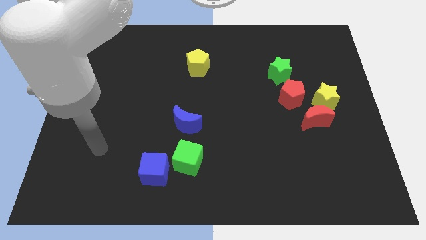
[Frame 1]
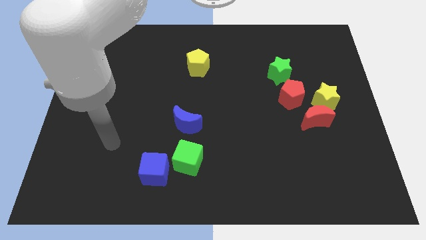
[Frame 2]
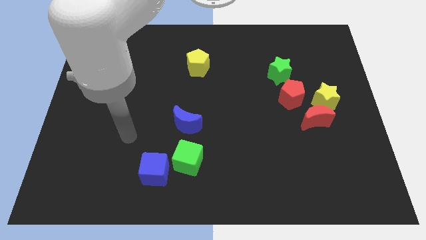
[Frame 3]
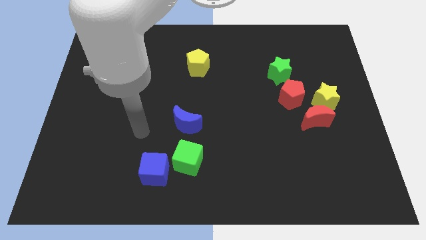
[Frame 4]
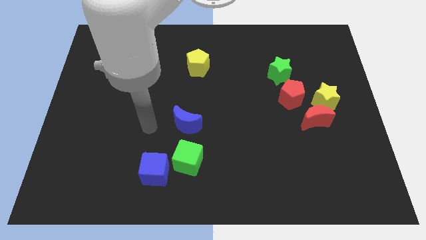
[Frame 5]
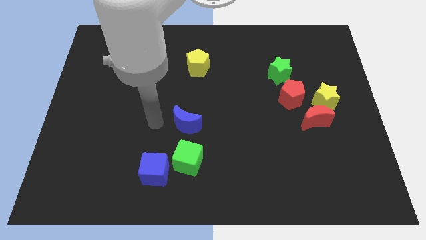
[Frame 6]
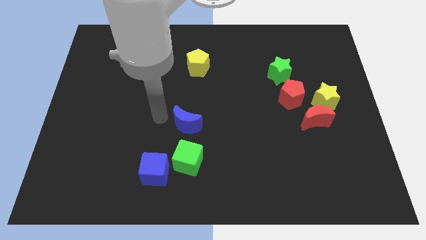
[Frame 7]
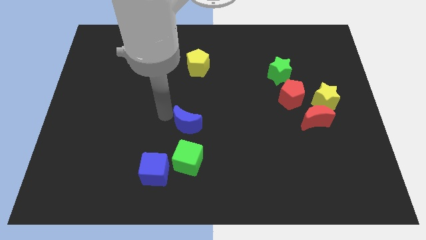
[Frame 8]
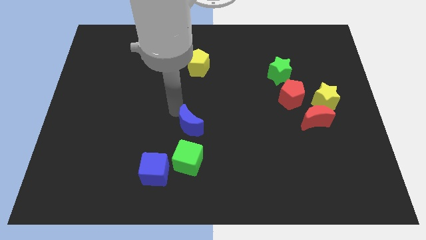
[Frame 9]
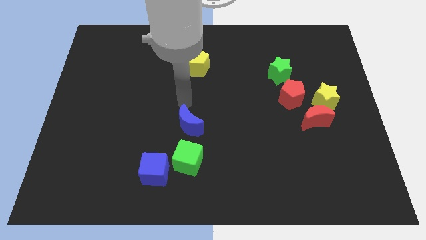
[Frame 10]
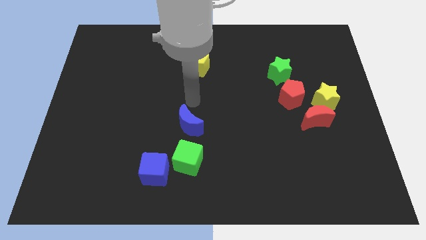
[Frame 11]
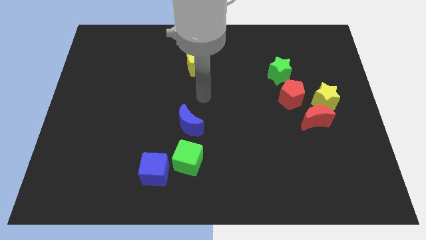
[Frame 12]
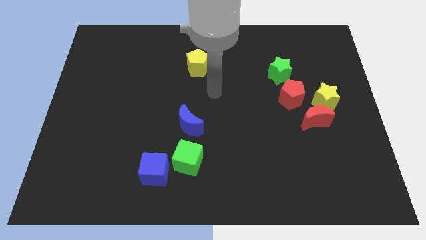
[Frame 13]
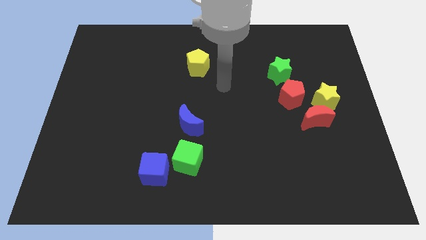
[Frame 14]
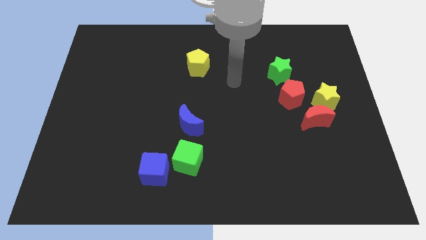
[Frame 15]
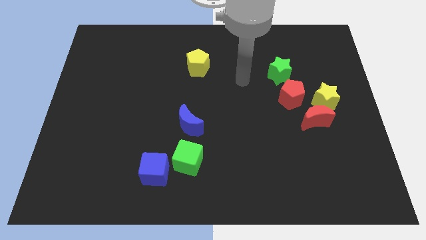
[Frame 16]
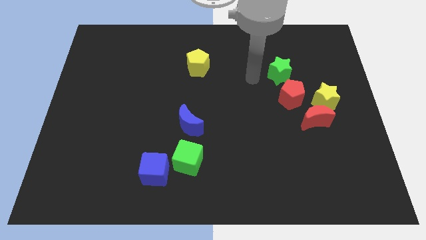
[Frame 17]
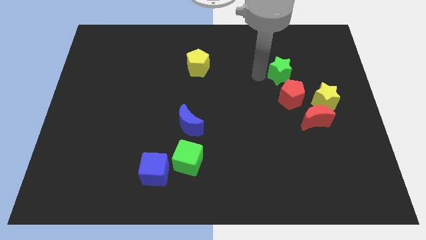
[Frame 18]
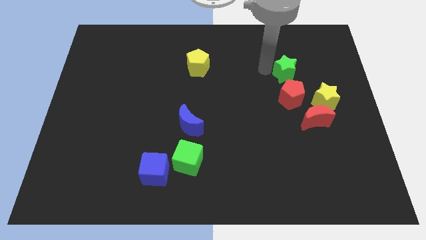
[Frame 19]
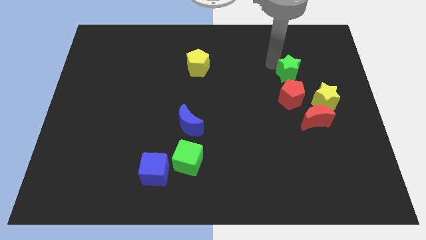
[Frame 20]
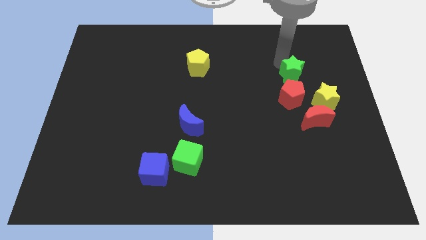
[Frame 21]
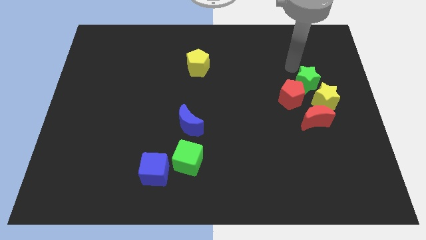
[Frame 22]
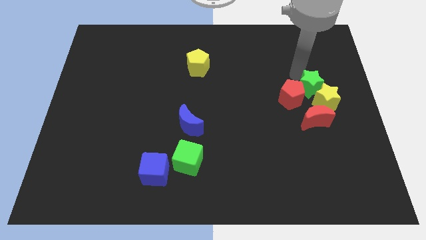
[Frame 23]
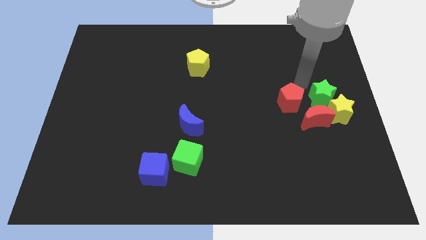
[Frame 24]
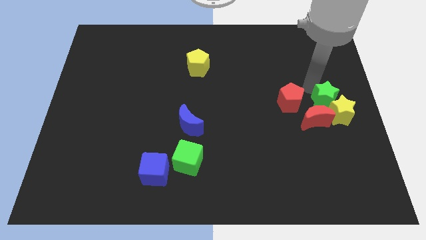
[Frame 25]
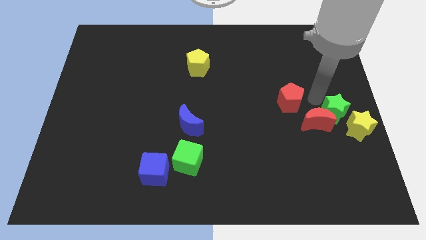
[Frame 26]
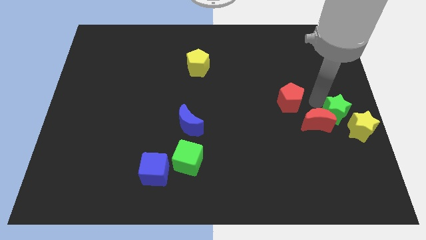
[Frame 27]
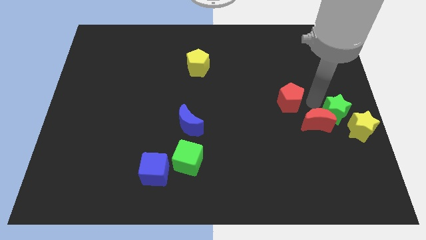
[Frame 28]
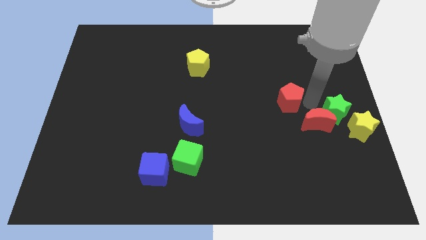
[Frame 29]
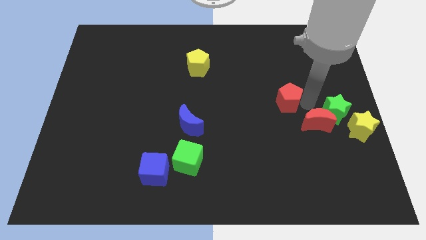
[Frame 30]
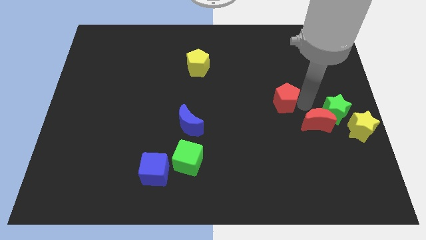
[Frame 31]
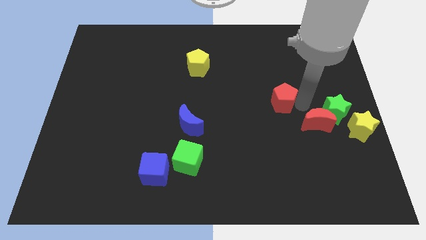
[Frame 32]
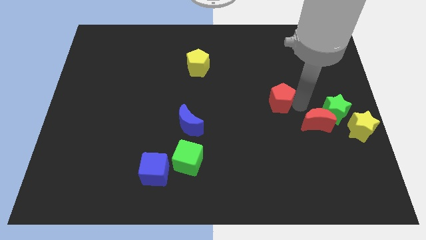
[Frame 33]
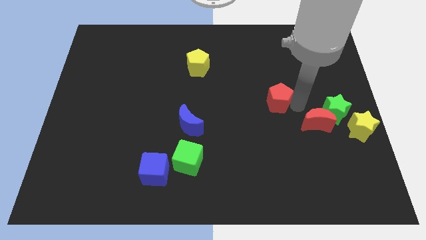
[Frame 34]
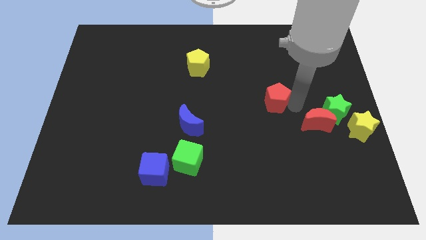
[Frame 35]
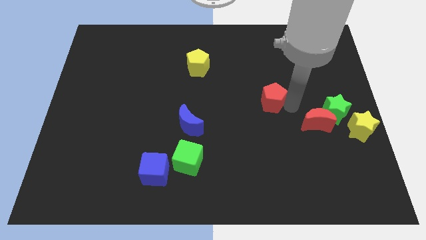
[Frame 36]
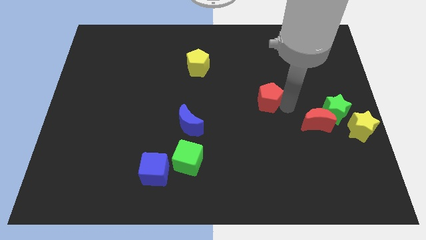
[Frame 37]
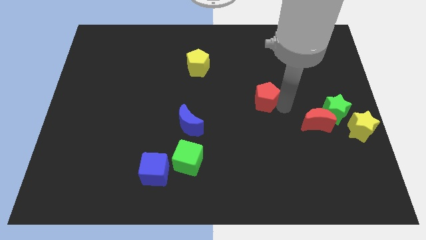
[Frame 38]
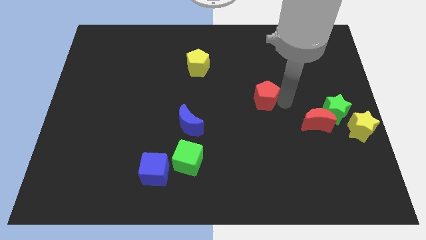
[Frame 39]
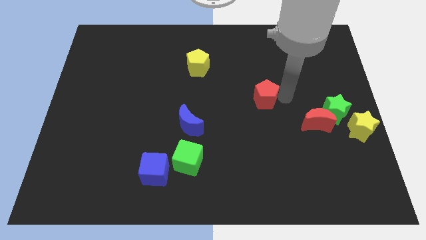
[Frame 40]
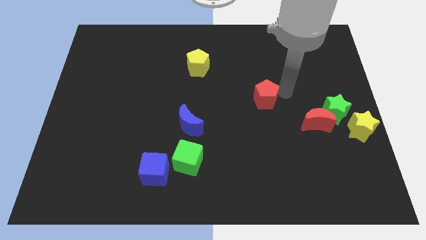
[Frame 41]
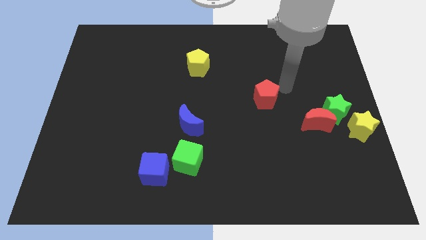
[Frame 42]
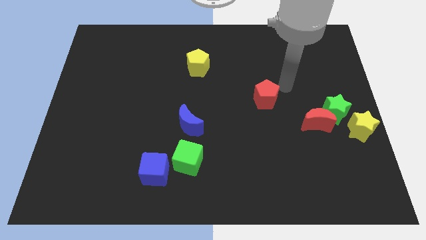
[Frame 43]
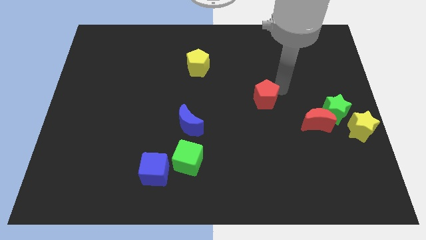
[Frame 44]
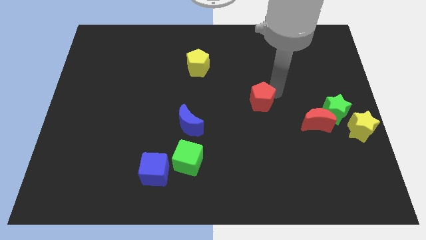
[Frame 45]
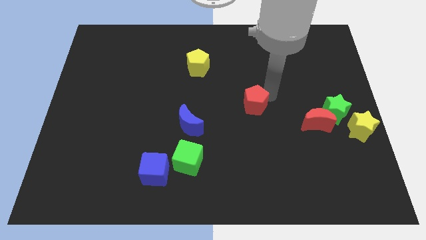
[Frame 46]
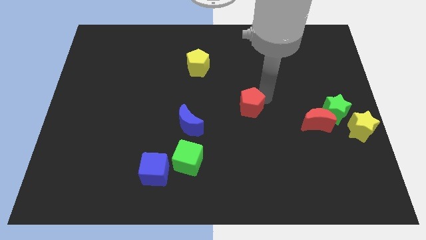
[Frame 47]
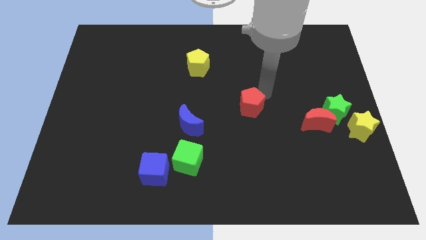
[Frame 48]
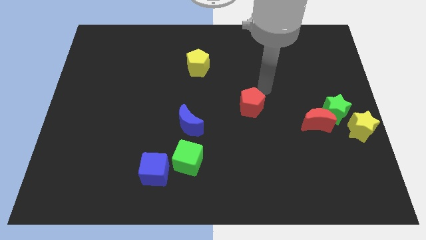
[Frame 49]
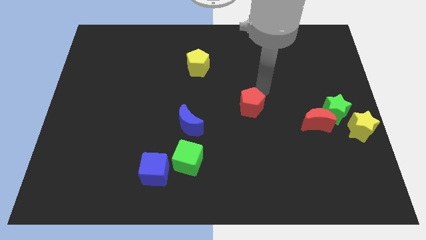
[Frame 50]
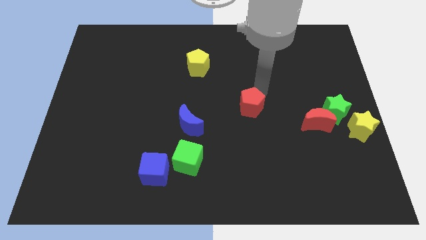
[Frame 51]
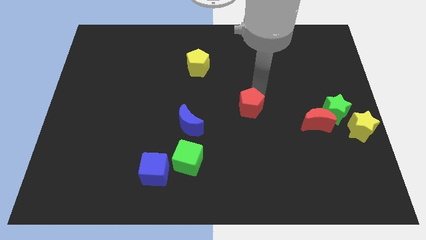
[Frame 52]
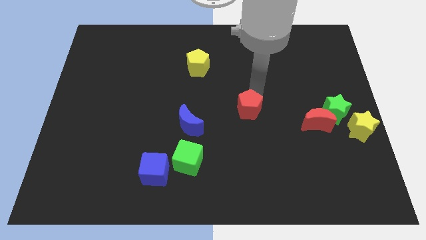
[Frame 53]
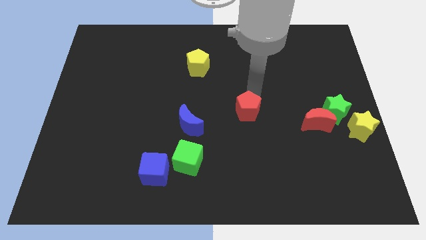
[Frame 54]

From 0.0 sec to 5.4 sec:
move the red pentagon to the right side of the blue moon

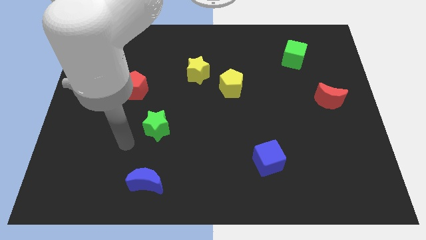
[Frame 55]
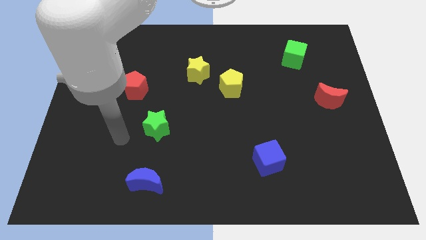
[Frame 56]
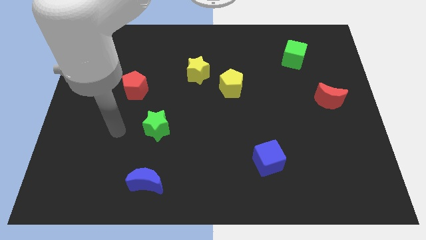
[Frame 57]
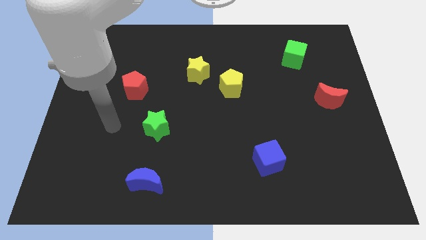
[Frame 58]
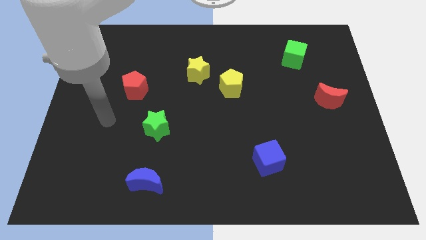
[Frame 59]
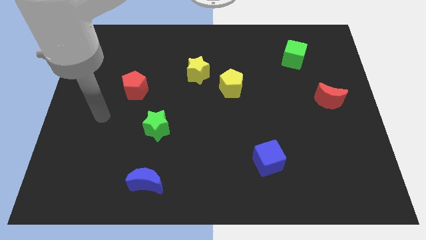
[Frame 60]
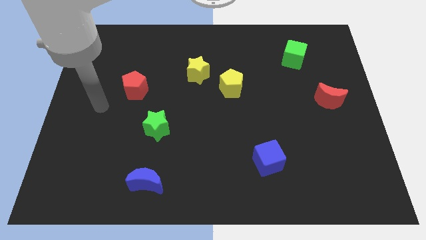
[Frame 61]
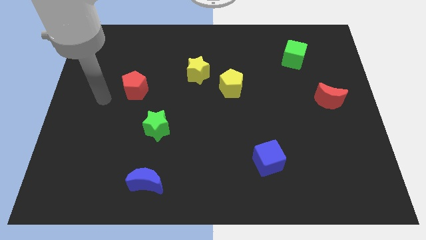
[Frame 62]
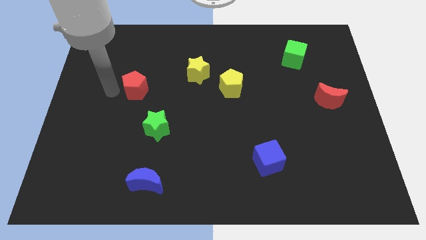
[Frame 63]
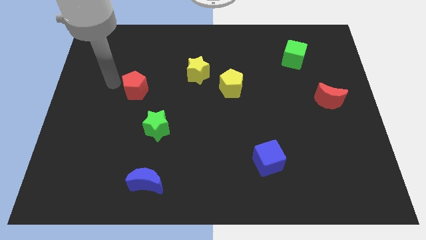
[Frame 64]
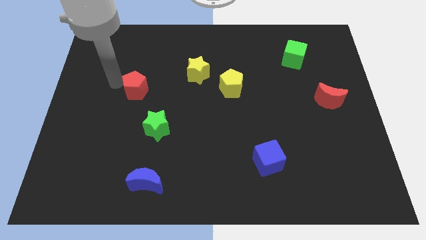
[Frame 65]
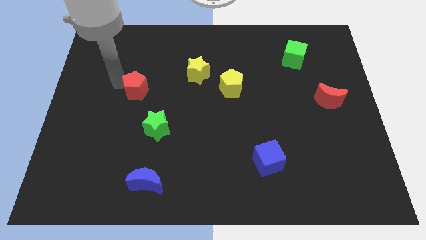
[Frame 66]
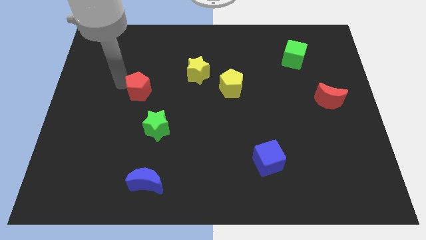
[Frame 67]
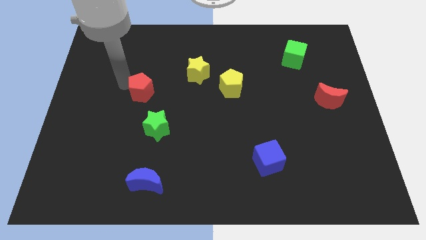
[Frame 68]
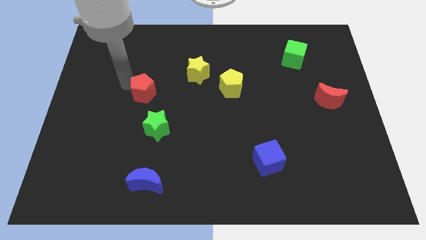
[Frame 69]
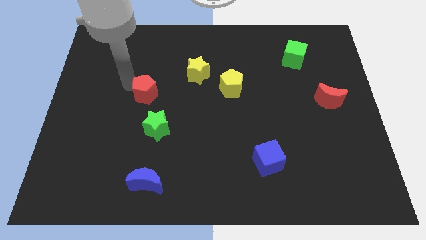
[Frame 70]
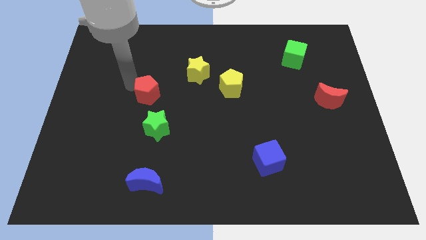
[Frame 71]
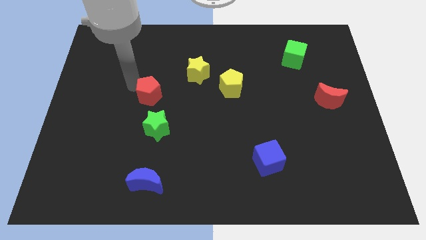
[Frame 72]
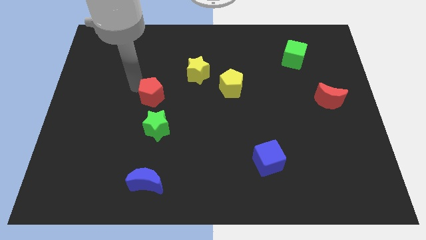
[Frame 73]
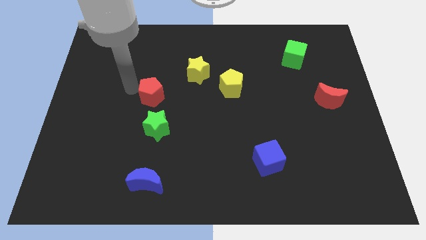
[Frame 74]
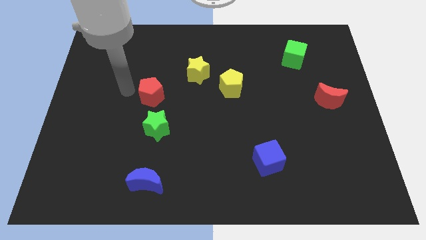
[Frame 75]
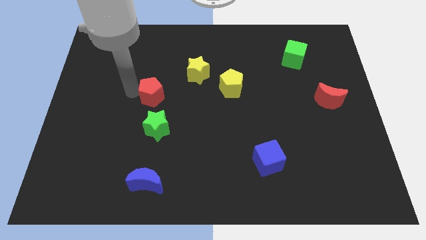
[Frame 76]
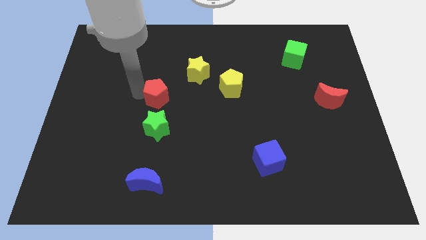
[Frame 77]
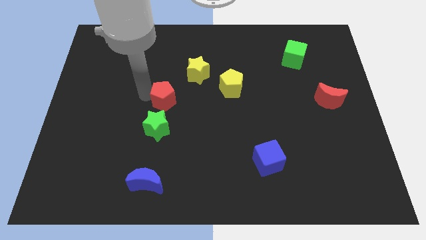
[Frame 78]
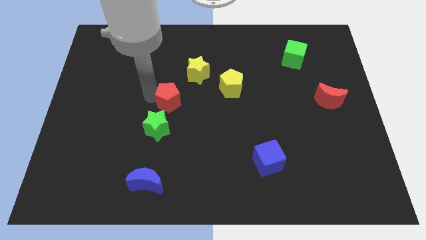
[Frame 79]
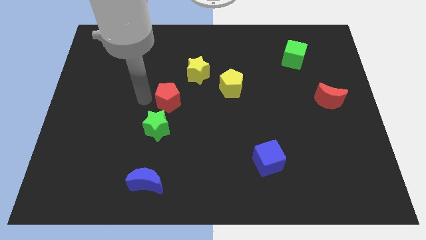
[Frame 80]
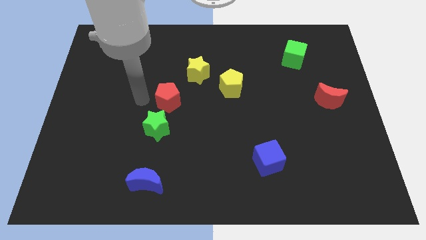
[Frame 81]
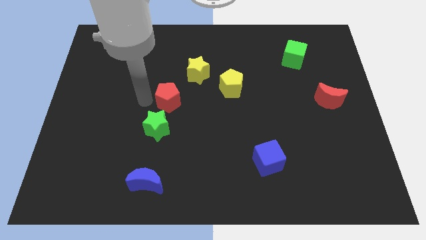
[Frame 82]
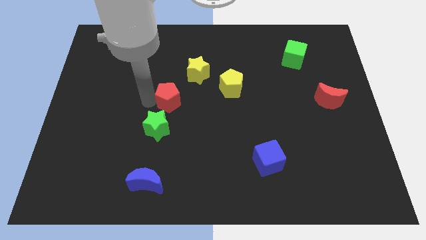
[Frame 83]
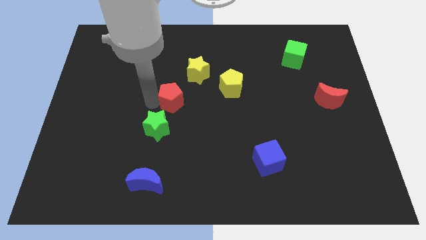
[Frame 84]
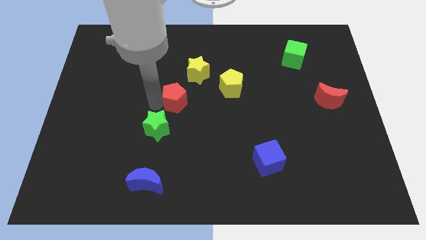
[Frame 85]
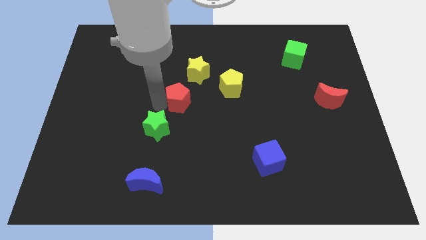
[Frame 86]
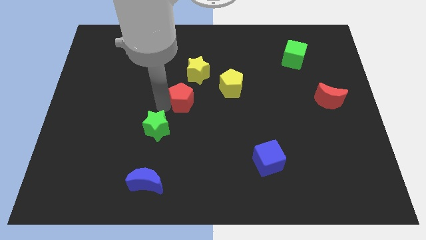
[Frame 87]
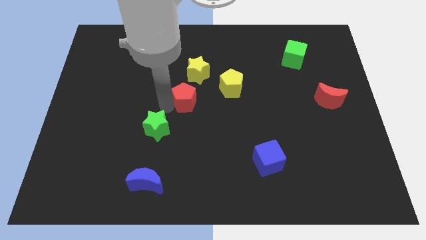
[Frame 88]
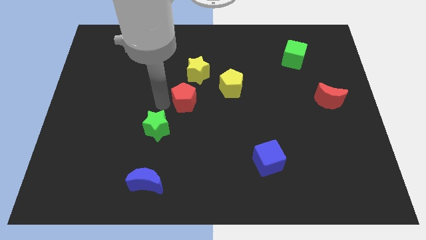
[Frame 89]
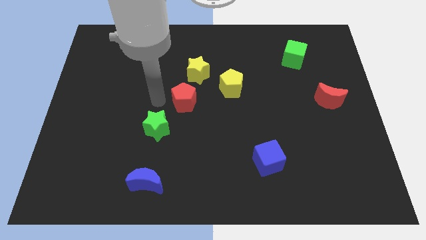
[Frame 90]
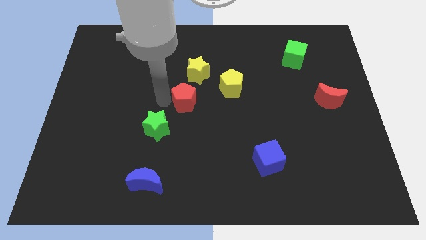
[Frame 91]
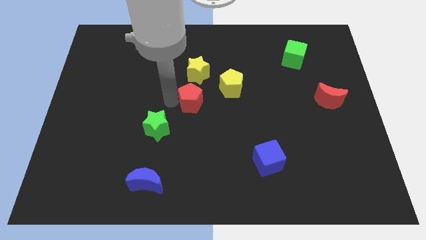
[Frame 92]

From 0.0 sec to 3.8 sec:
move the red pentagon to the bottom left of the yellow pentagon
